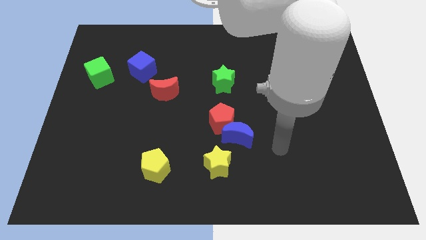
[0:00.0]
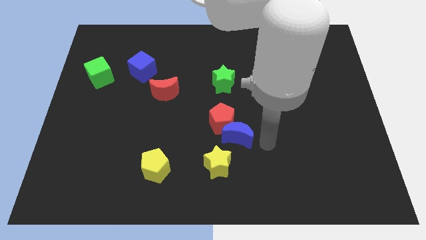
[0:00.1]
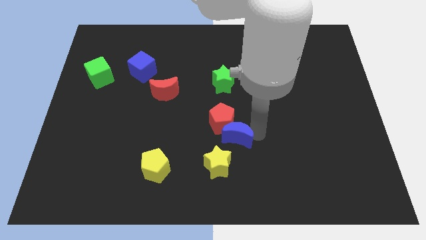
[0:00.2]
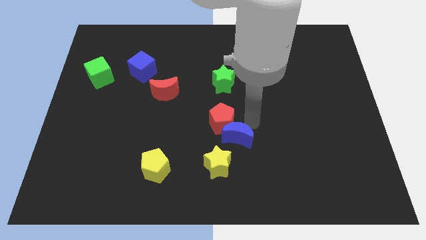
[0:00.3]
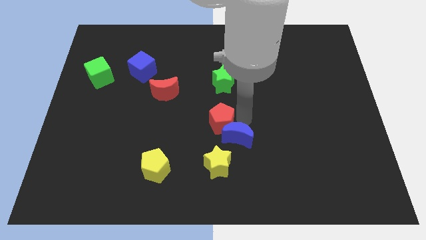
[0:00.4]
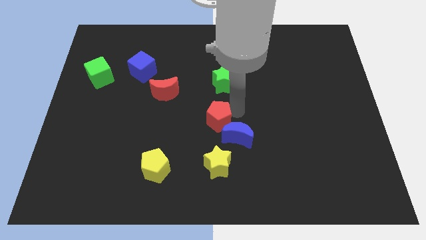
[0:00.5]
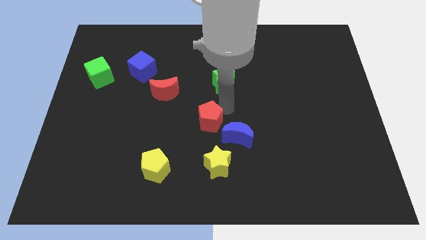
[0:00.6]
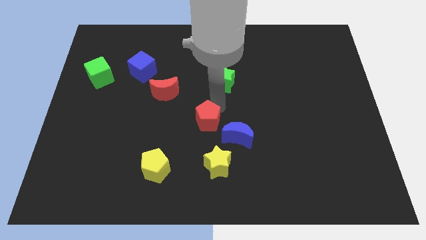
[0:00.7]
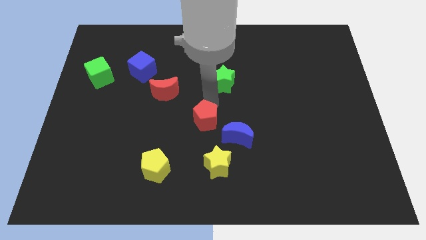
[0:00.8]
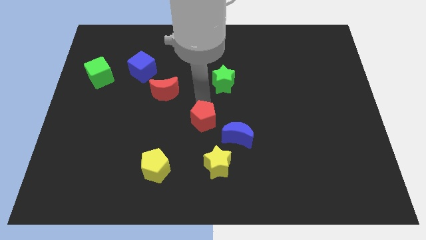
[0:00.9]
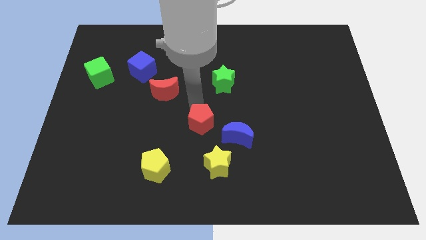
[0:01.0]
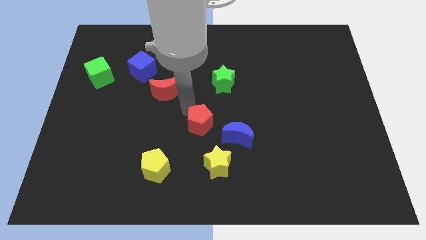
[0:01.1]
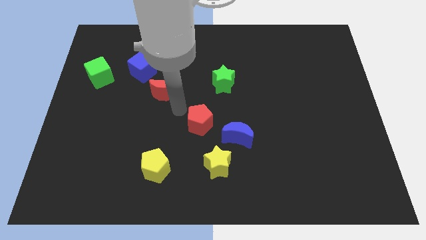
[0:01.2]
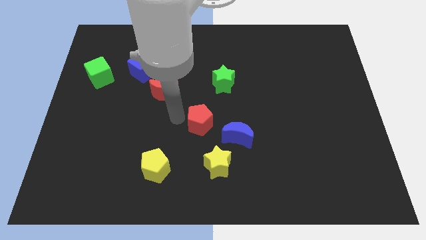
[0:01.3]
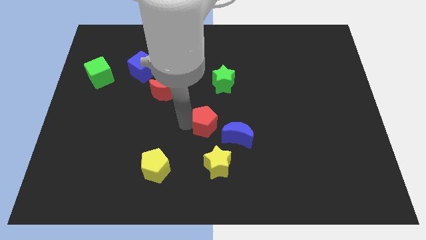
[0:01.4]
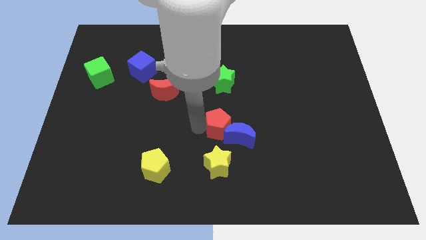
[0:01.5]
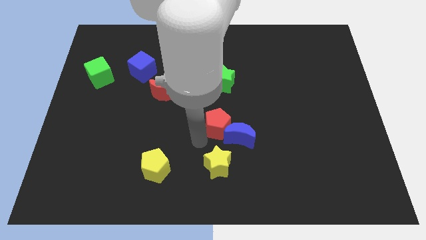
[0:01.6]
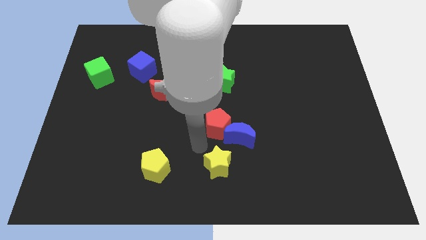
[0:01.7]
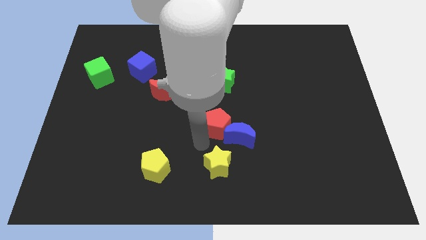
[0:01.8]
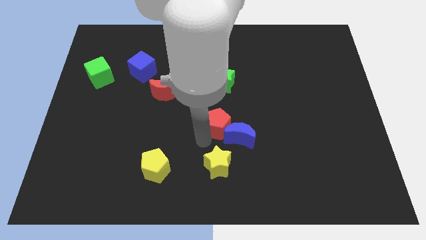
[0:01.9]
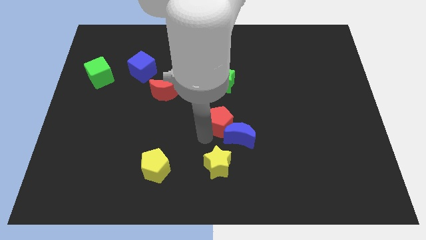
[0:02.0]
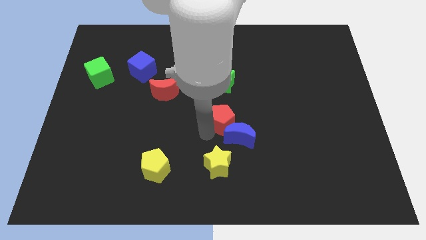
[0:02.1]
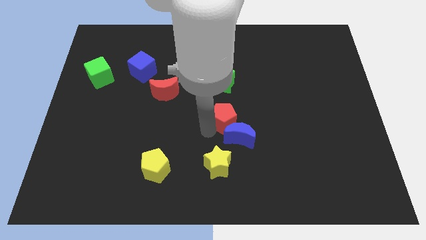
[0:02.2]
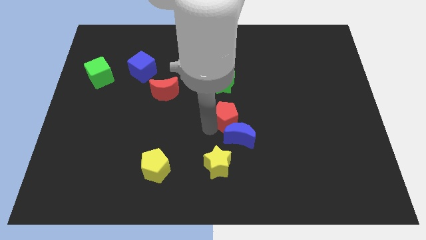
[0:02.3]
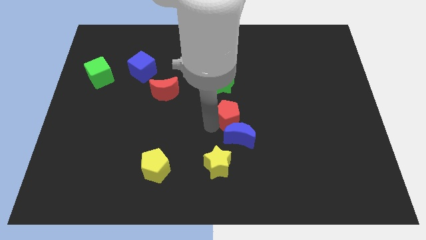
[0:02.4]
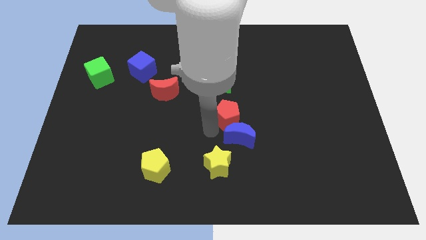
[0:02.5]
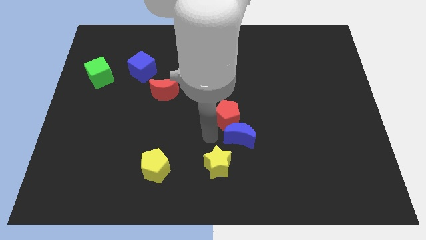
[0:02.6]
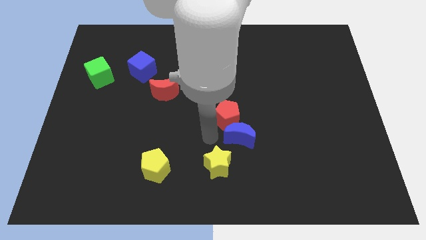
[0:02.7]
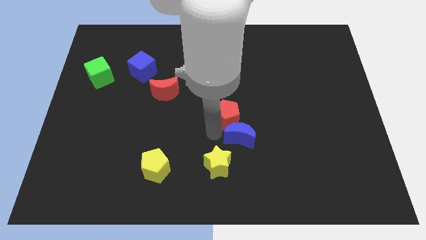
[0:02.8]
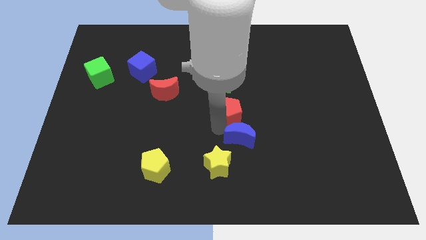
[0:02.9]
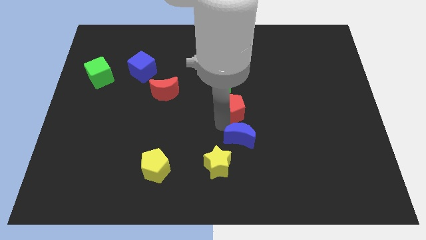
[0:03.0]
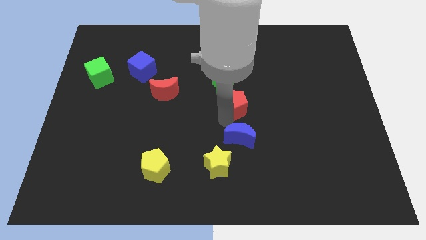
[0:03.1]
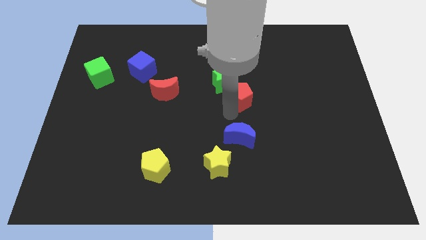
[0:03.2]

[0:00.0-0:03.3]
push the red pentagon diagonally up and right slightly

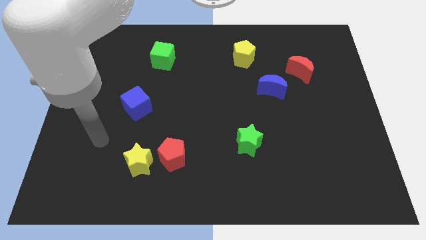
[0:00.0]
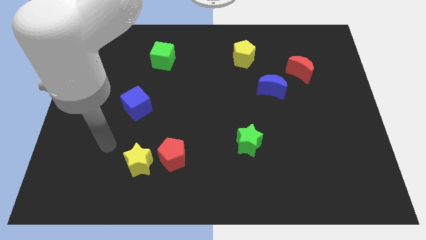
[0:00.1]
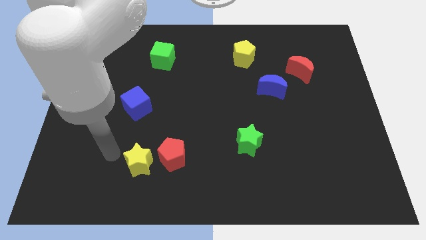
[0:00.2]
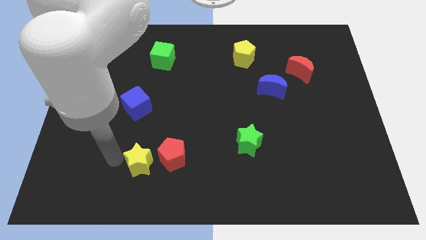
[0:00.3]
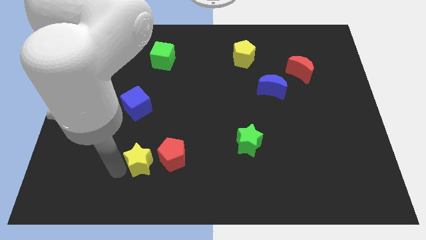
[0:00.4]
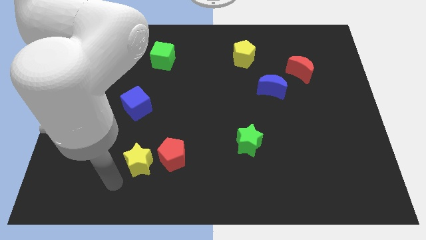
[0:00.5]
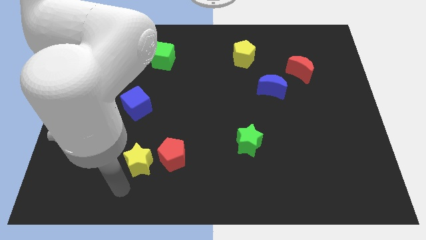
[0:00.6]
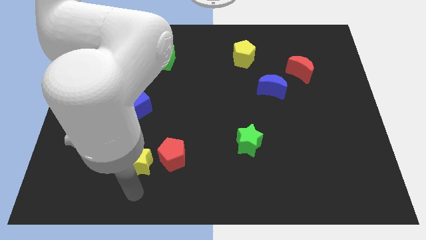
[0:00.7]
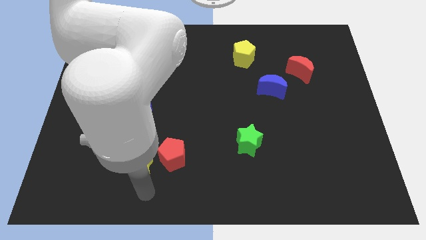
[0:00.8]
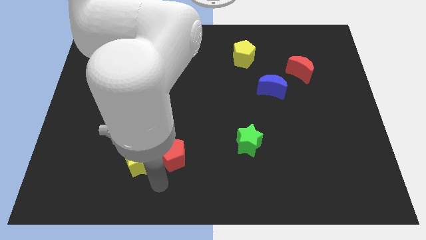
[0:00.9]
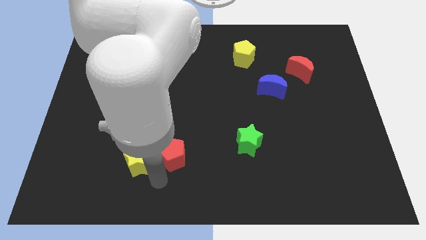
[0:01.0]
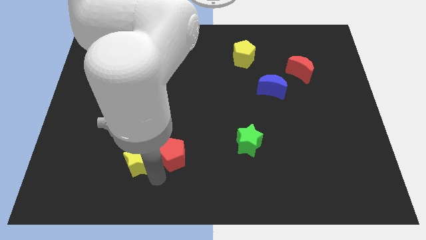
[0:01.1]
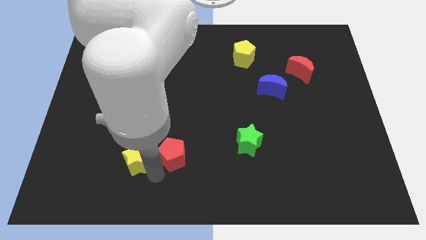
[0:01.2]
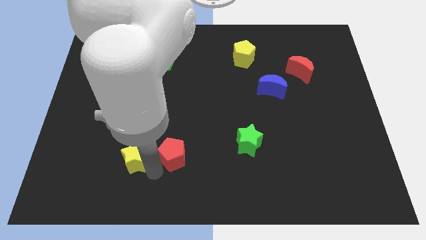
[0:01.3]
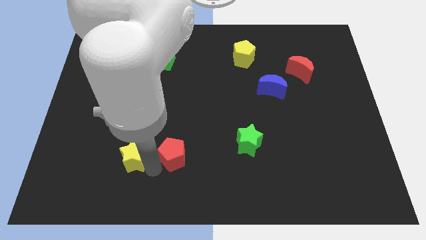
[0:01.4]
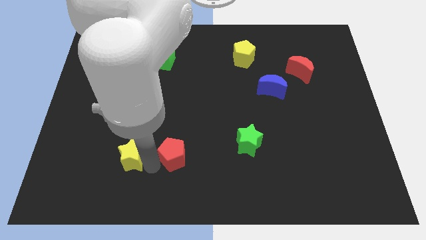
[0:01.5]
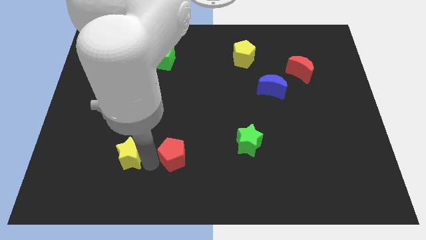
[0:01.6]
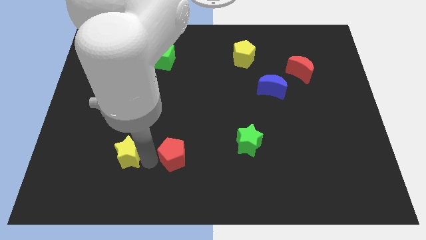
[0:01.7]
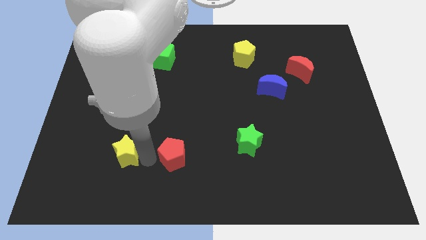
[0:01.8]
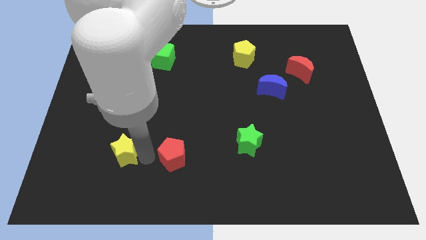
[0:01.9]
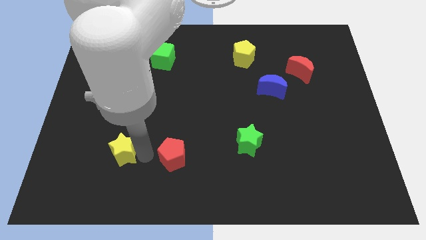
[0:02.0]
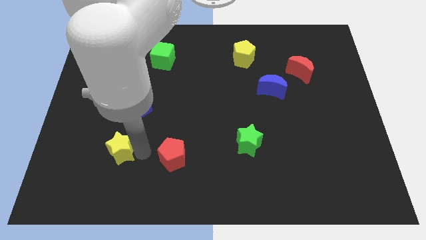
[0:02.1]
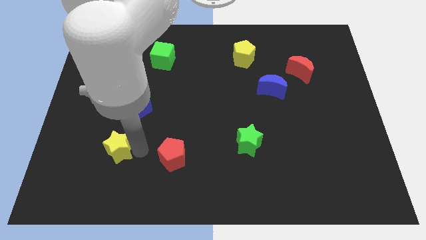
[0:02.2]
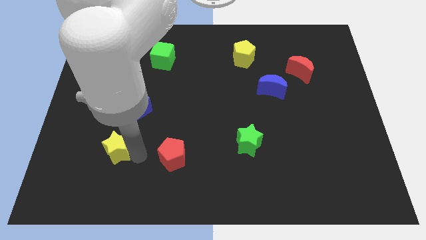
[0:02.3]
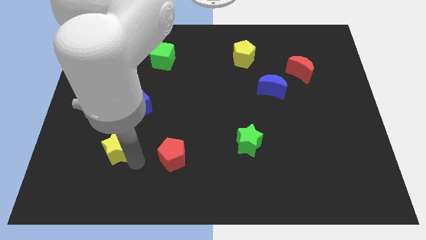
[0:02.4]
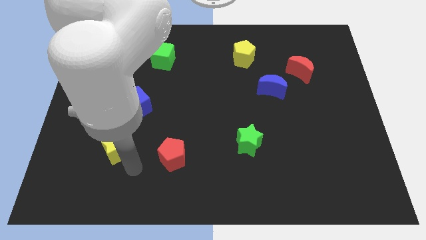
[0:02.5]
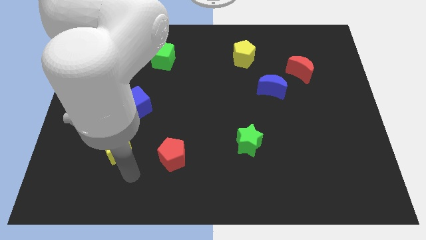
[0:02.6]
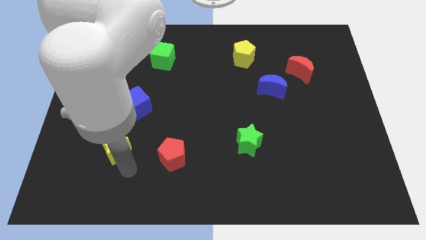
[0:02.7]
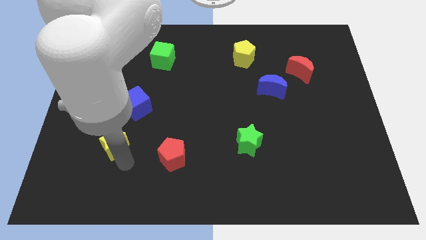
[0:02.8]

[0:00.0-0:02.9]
slightly move the yellow star up and then left

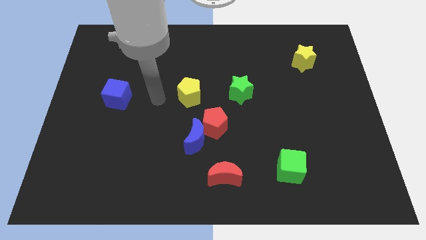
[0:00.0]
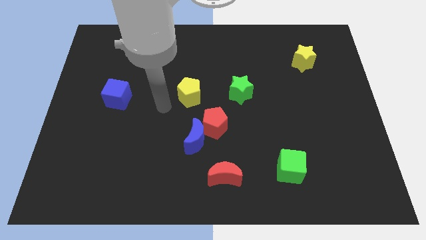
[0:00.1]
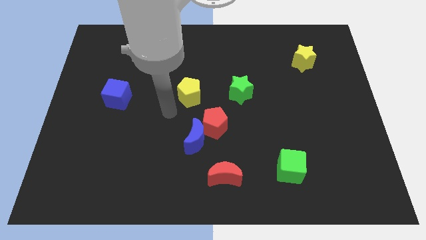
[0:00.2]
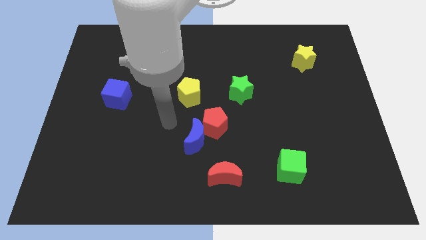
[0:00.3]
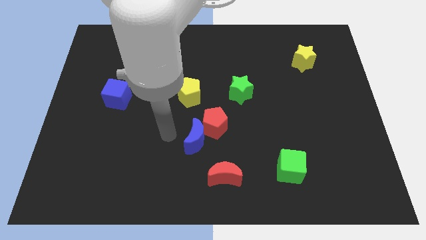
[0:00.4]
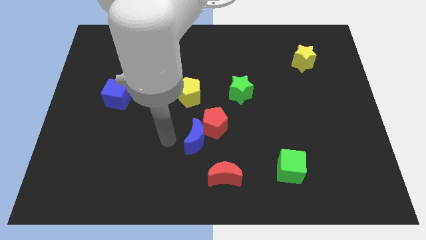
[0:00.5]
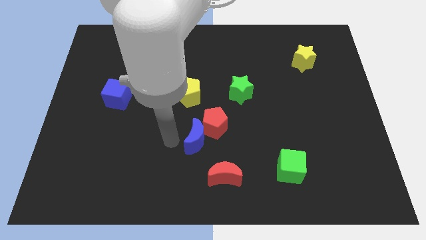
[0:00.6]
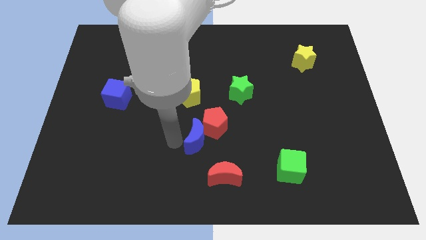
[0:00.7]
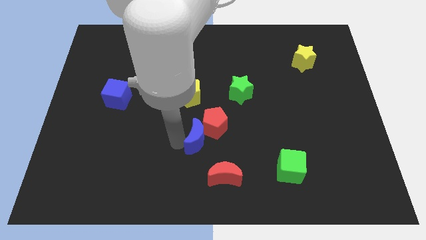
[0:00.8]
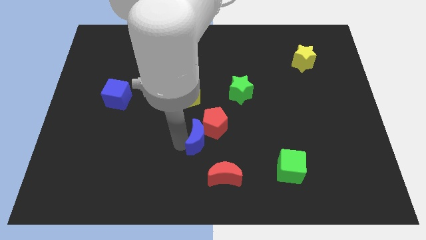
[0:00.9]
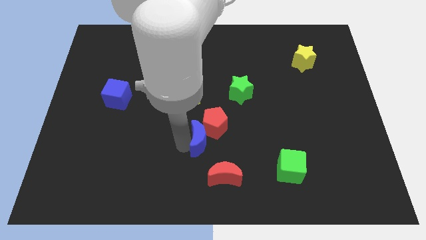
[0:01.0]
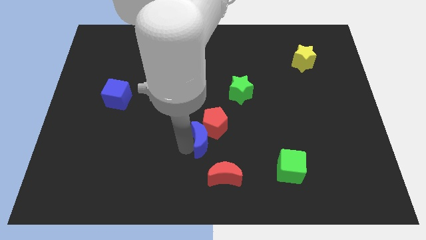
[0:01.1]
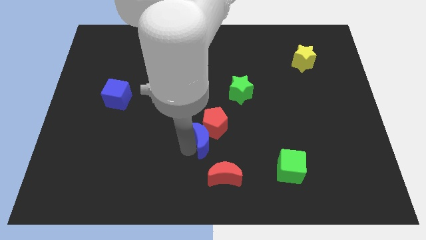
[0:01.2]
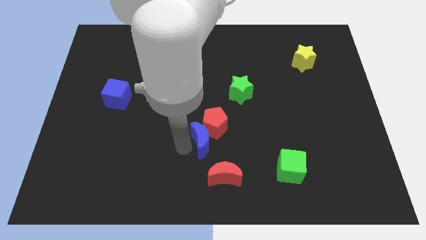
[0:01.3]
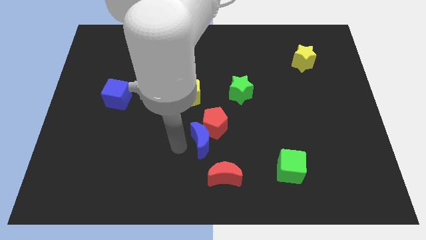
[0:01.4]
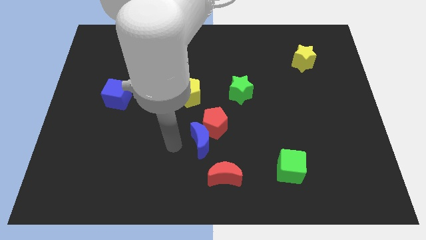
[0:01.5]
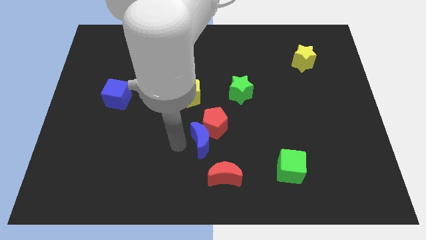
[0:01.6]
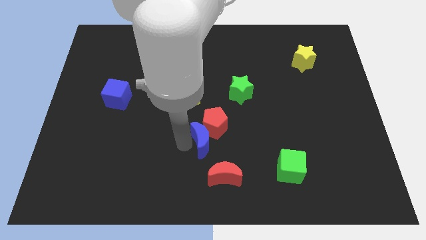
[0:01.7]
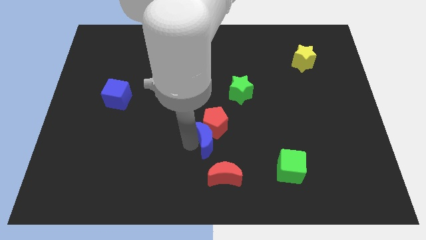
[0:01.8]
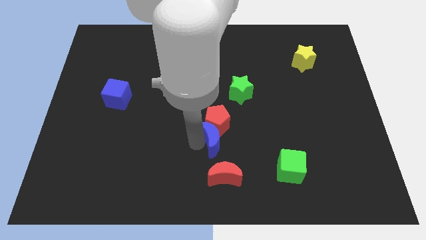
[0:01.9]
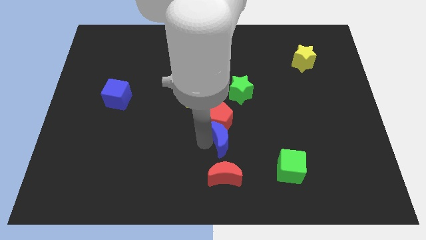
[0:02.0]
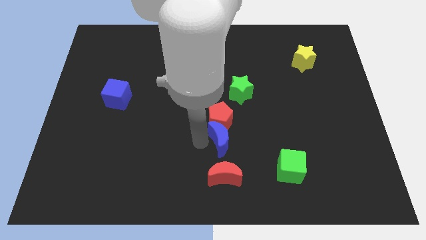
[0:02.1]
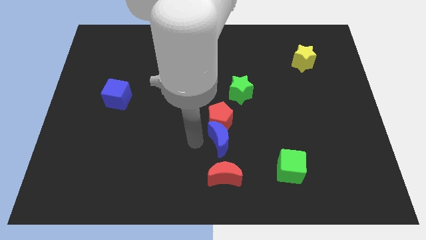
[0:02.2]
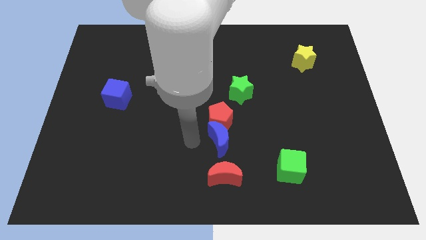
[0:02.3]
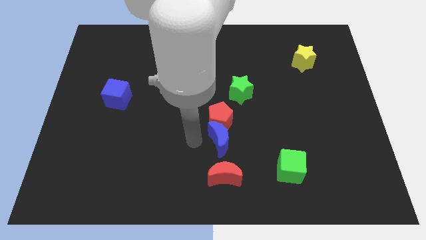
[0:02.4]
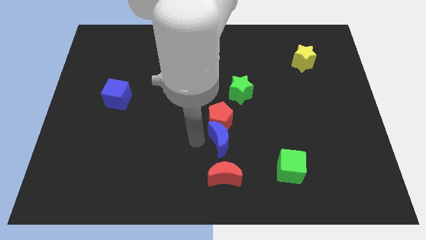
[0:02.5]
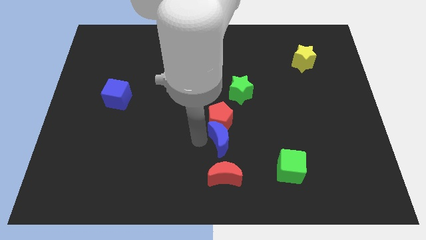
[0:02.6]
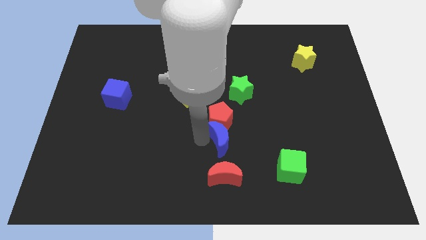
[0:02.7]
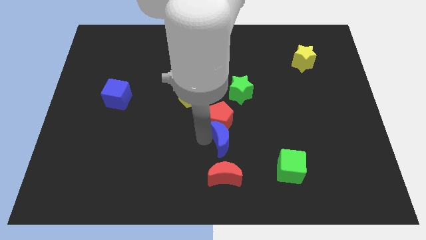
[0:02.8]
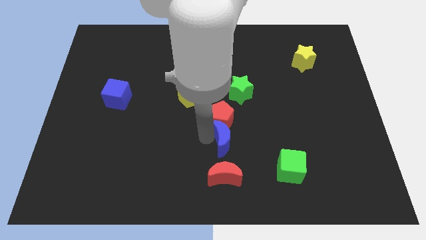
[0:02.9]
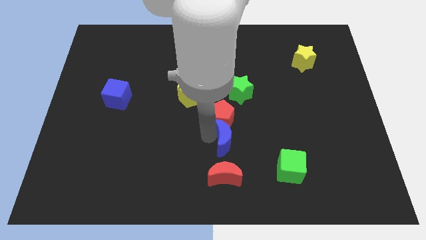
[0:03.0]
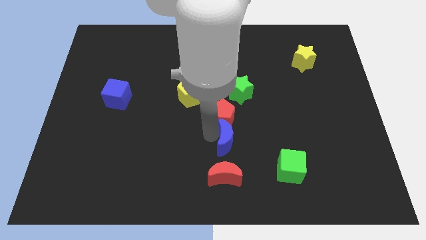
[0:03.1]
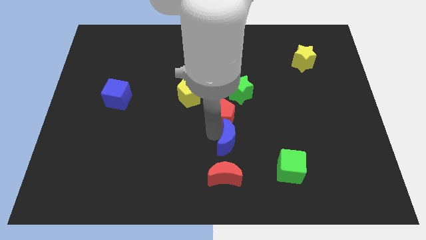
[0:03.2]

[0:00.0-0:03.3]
slide the blue moon to the right a little bit
